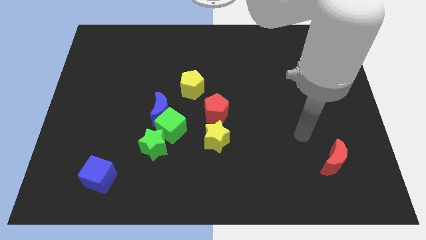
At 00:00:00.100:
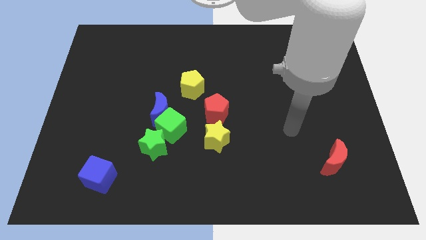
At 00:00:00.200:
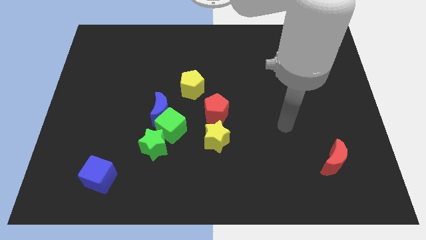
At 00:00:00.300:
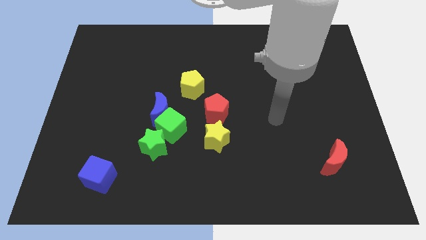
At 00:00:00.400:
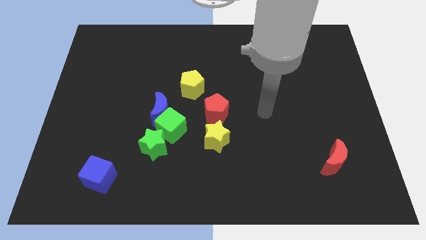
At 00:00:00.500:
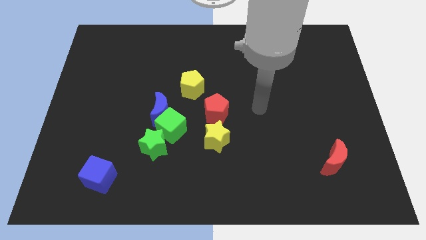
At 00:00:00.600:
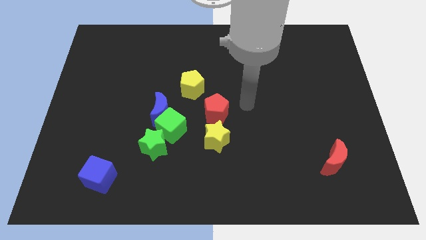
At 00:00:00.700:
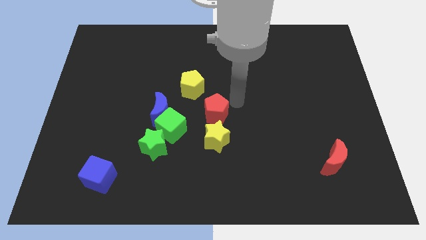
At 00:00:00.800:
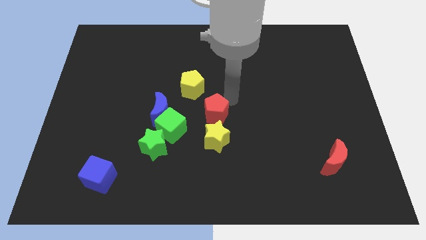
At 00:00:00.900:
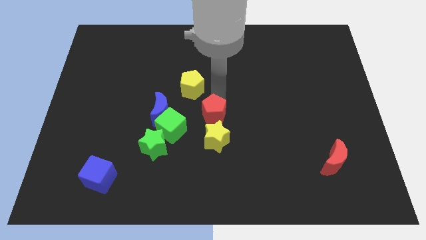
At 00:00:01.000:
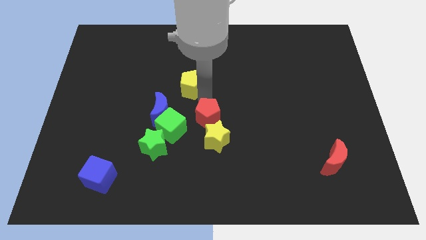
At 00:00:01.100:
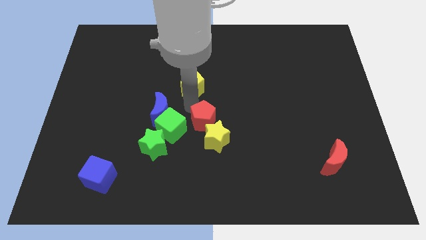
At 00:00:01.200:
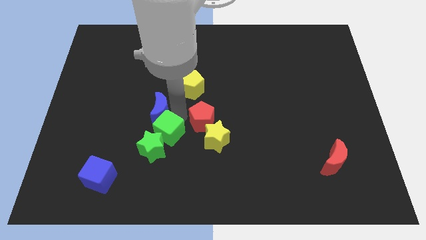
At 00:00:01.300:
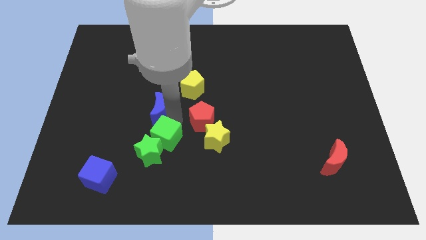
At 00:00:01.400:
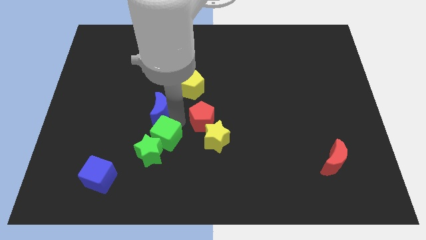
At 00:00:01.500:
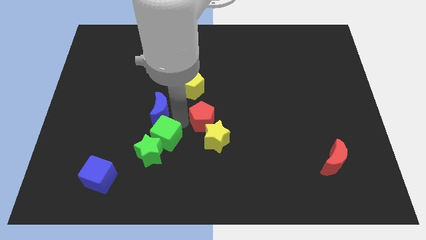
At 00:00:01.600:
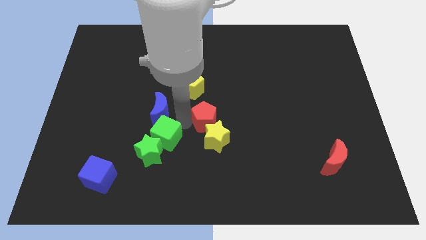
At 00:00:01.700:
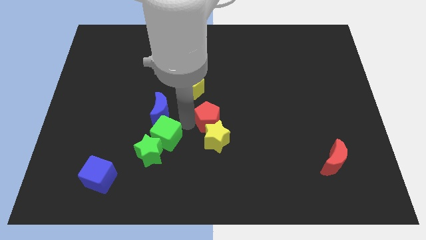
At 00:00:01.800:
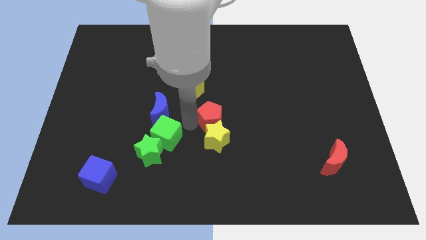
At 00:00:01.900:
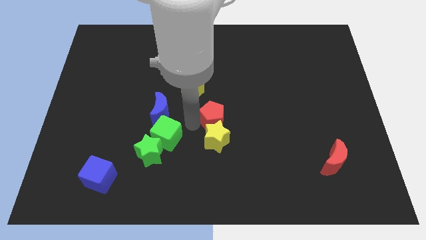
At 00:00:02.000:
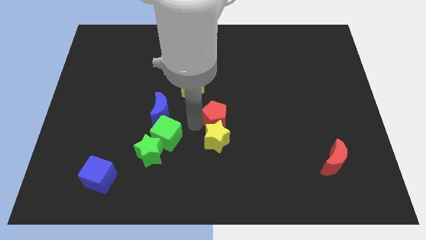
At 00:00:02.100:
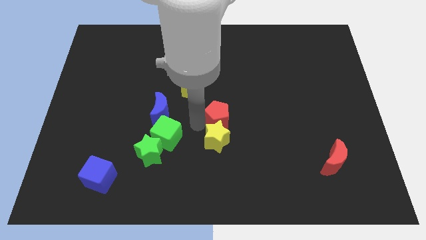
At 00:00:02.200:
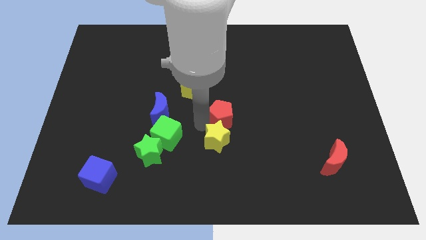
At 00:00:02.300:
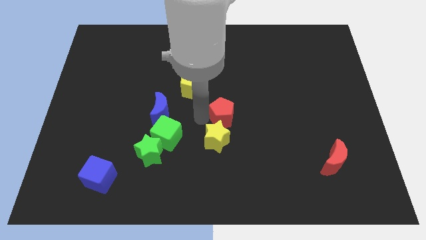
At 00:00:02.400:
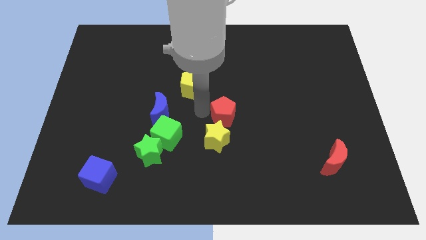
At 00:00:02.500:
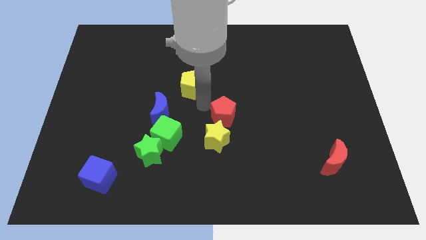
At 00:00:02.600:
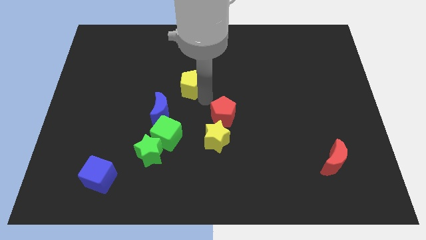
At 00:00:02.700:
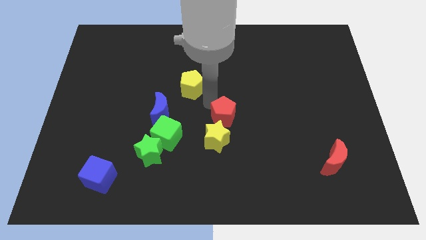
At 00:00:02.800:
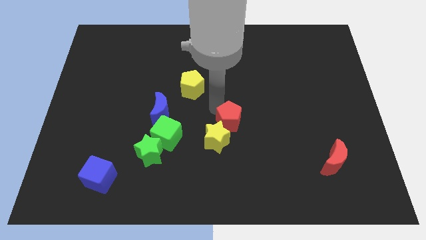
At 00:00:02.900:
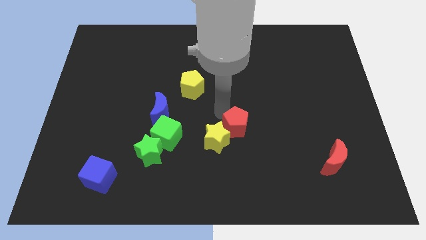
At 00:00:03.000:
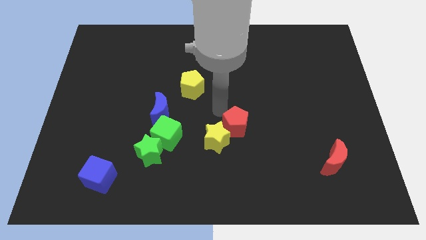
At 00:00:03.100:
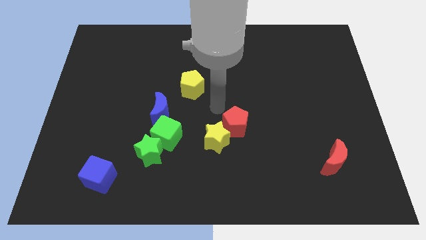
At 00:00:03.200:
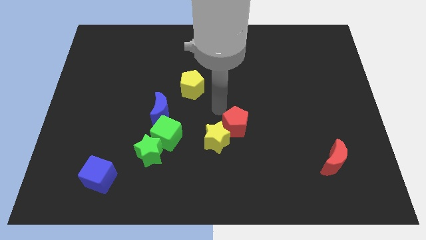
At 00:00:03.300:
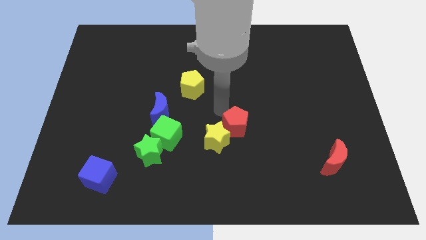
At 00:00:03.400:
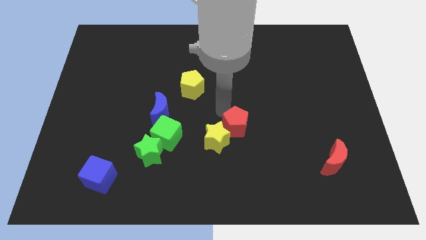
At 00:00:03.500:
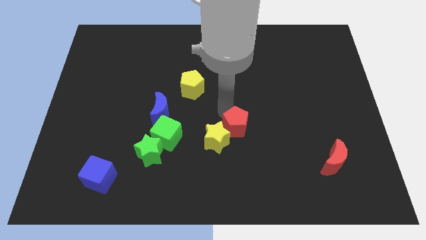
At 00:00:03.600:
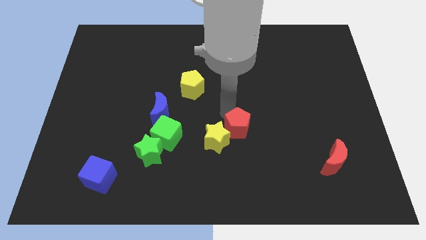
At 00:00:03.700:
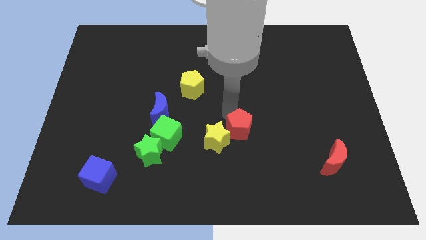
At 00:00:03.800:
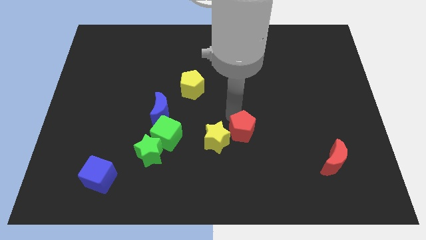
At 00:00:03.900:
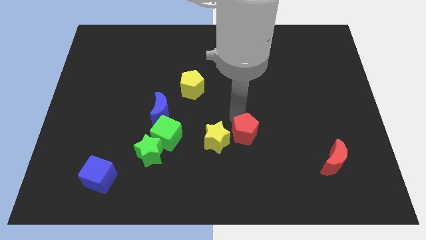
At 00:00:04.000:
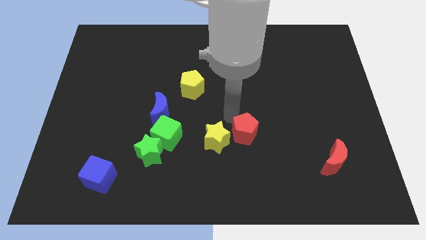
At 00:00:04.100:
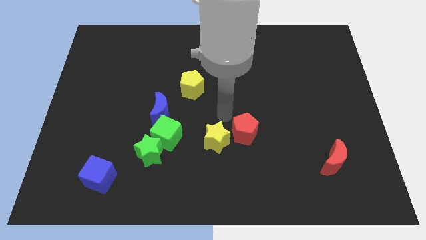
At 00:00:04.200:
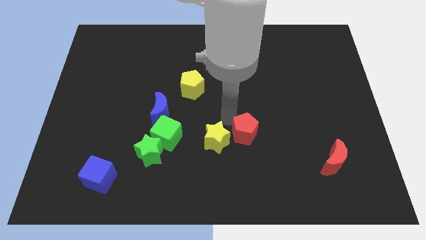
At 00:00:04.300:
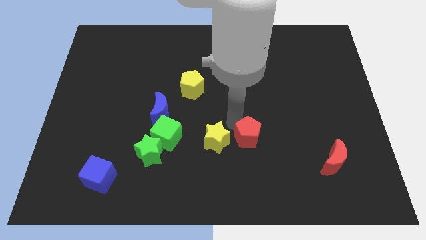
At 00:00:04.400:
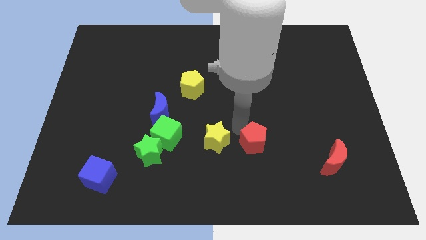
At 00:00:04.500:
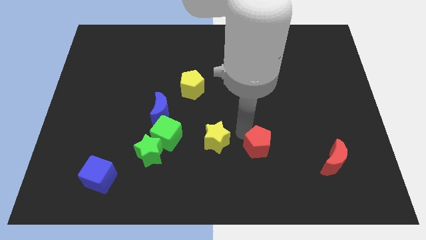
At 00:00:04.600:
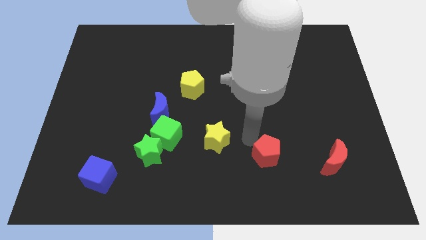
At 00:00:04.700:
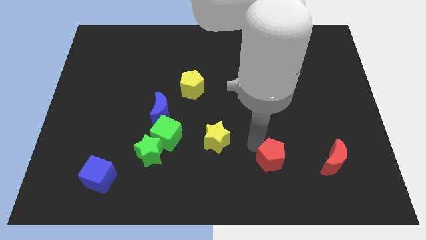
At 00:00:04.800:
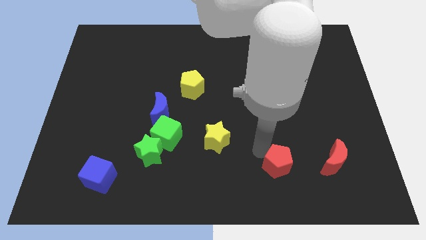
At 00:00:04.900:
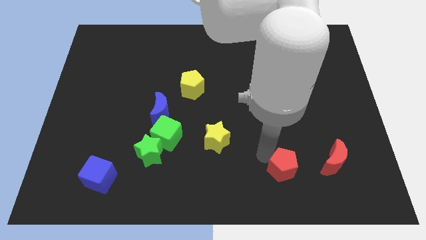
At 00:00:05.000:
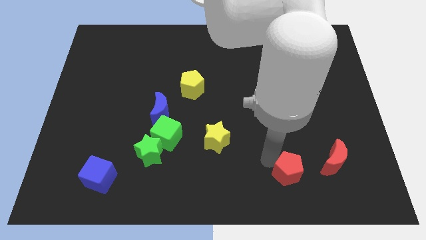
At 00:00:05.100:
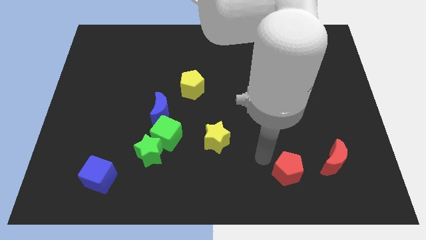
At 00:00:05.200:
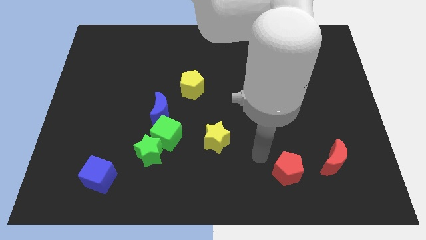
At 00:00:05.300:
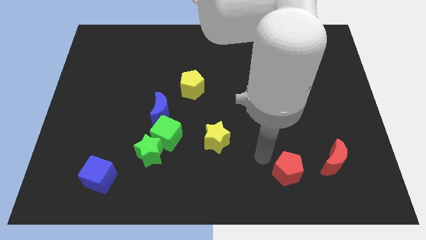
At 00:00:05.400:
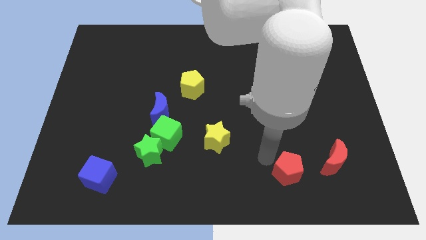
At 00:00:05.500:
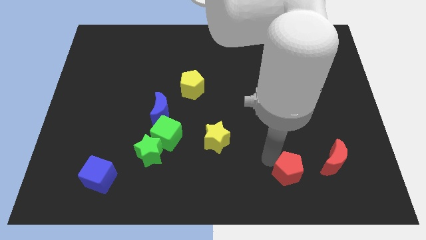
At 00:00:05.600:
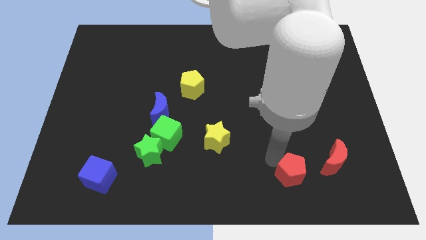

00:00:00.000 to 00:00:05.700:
put the red pentagon to the bottom left side of the red moon
